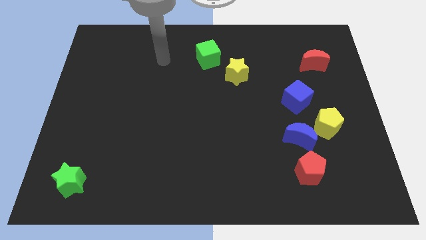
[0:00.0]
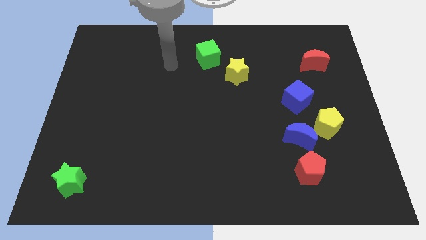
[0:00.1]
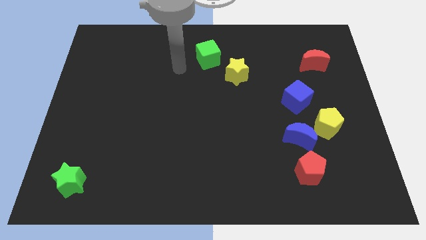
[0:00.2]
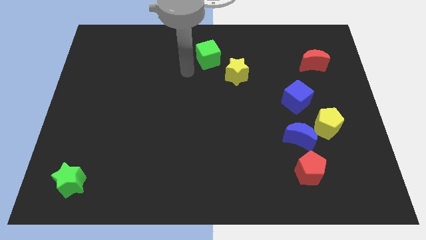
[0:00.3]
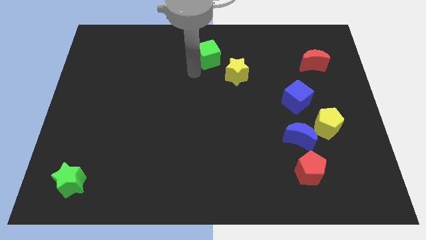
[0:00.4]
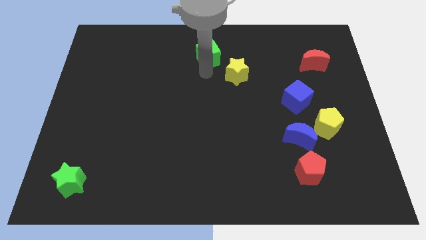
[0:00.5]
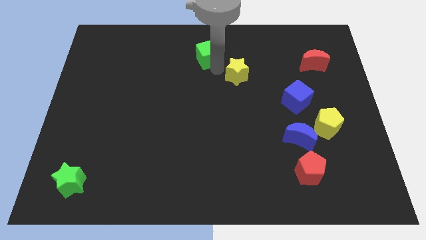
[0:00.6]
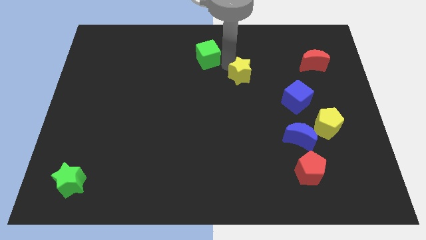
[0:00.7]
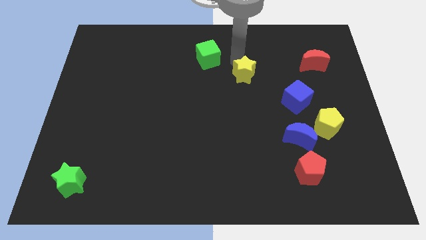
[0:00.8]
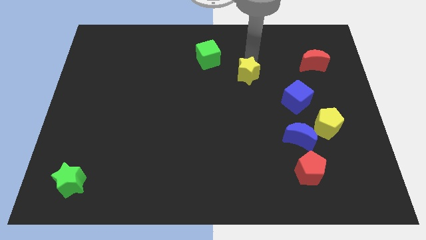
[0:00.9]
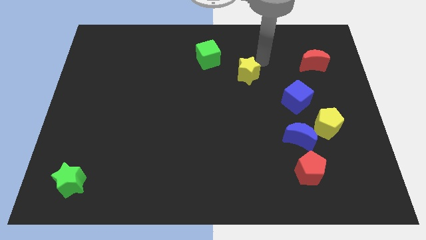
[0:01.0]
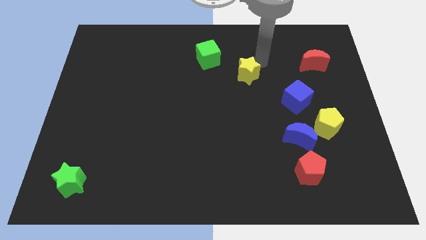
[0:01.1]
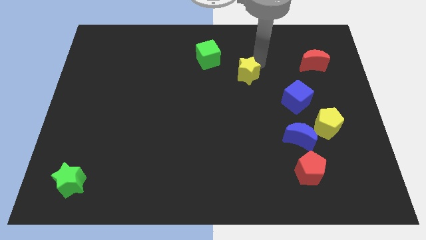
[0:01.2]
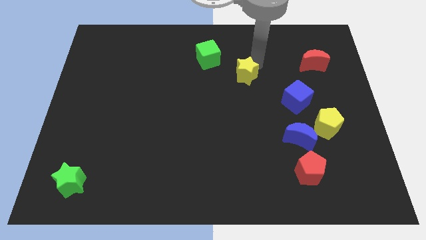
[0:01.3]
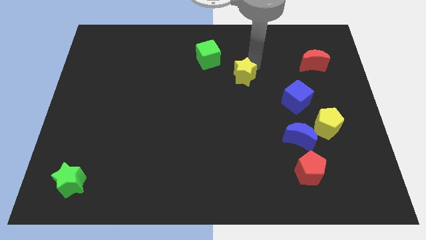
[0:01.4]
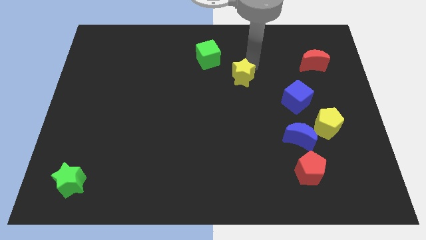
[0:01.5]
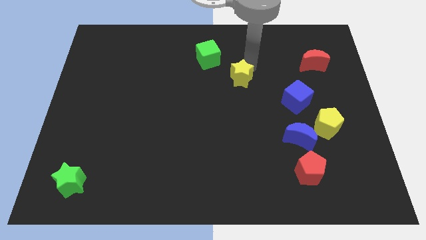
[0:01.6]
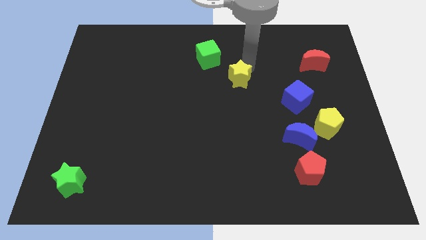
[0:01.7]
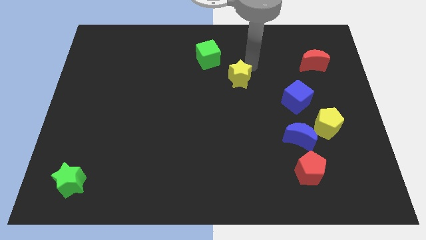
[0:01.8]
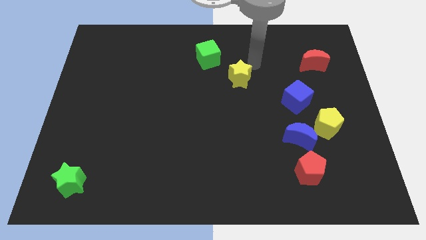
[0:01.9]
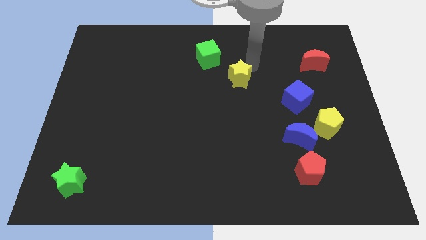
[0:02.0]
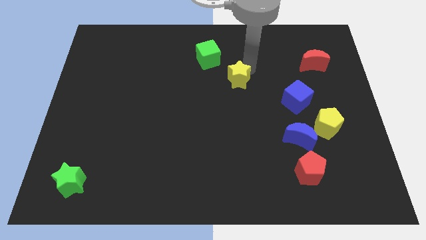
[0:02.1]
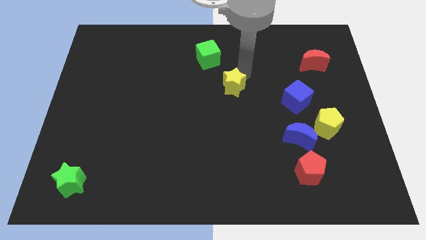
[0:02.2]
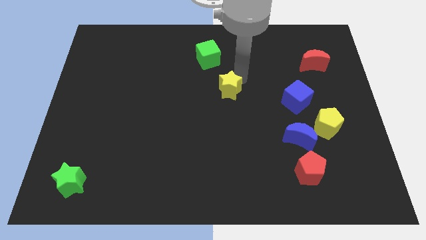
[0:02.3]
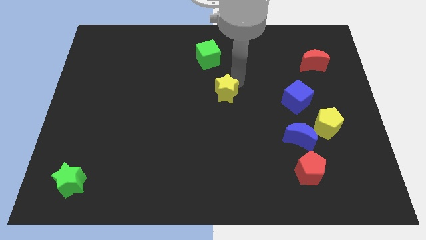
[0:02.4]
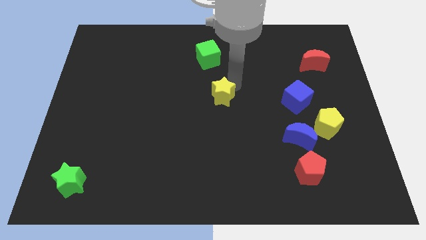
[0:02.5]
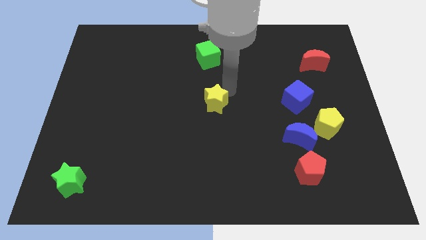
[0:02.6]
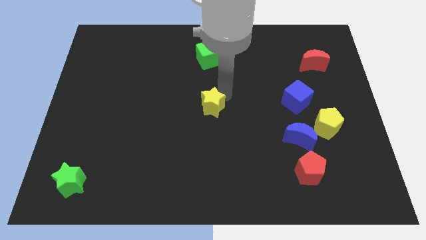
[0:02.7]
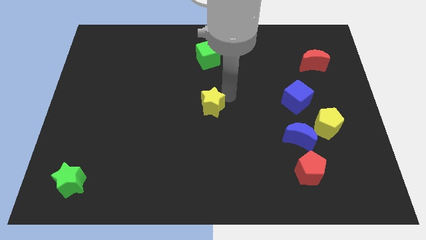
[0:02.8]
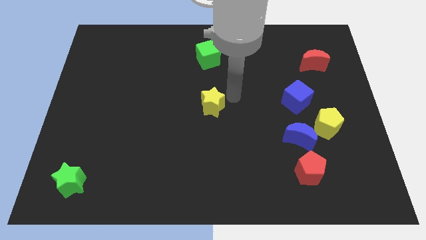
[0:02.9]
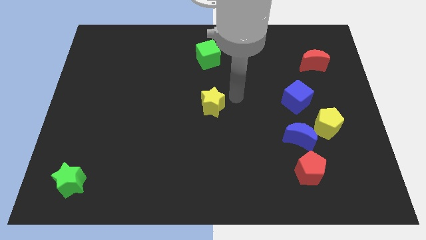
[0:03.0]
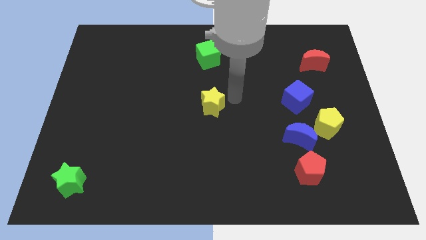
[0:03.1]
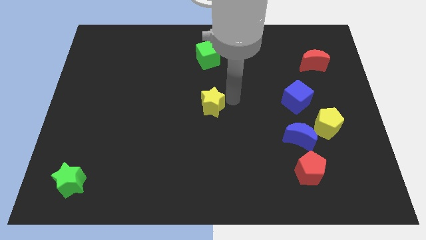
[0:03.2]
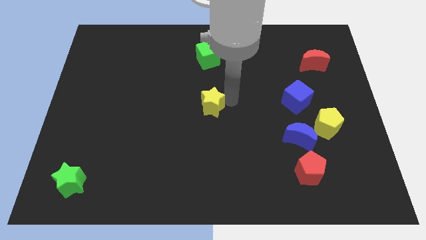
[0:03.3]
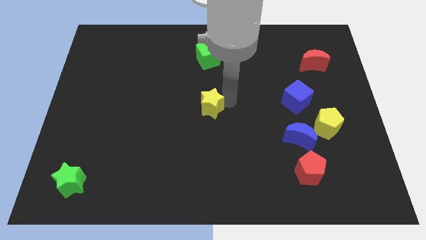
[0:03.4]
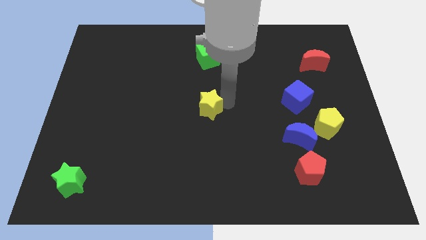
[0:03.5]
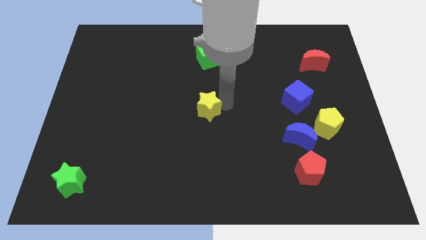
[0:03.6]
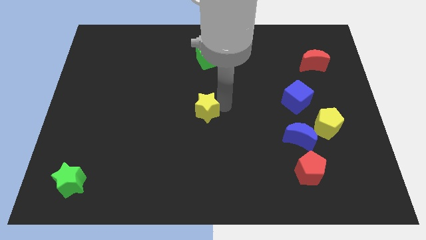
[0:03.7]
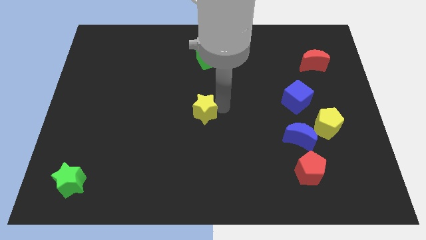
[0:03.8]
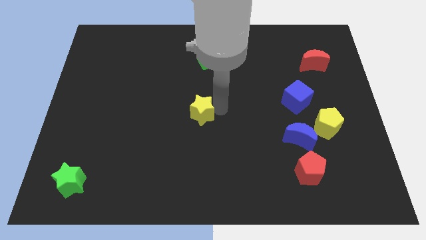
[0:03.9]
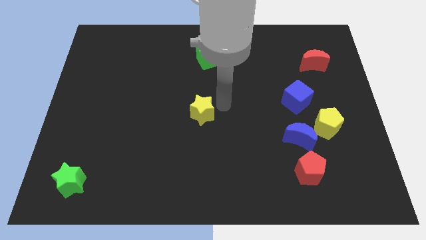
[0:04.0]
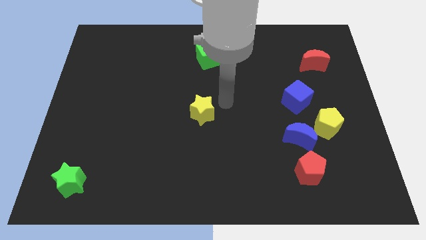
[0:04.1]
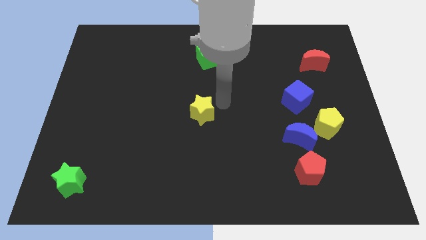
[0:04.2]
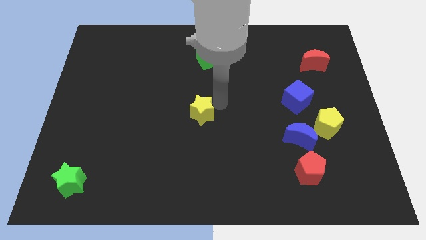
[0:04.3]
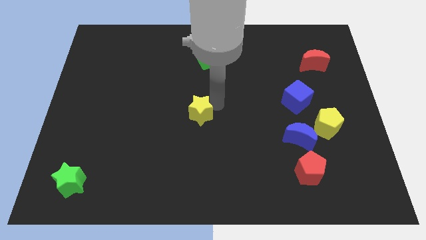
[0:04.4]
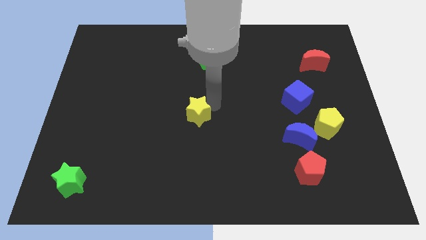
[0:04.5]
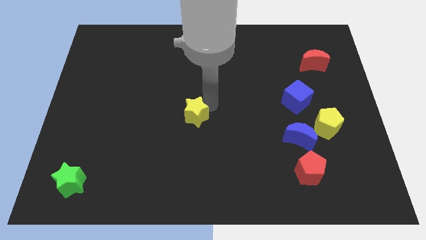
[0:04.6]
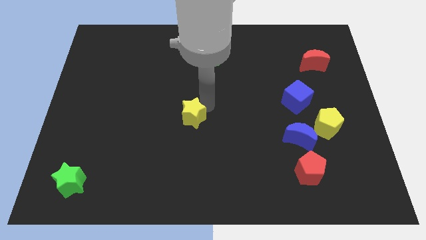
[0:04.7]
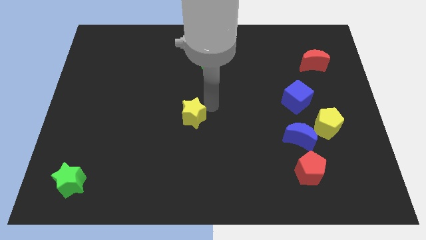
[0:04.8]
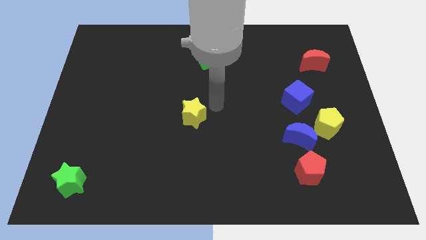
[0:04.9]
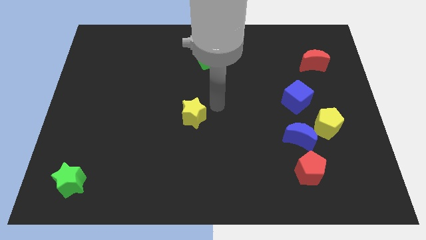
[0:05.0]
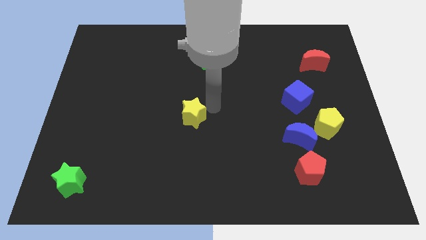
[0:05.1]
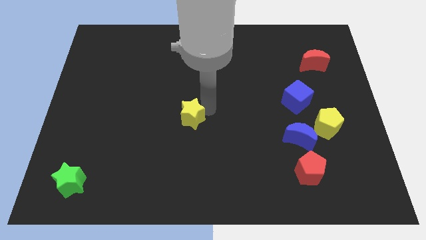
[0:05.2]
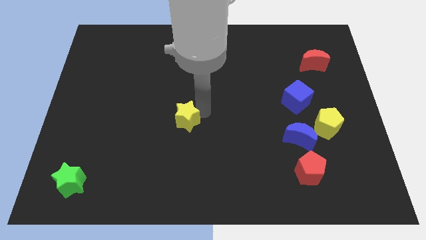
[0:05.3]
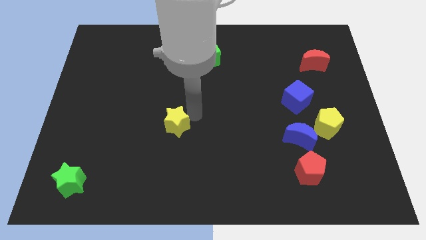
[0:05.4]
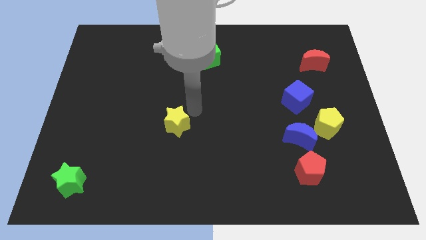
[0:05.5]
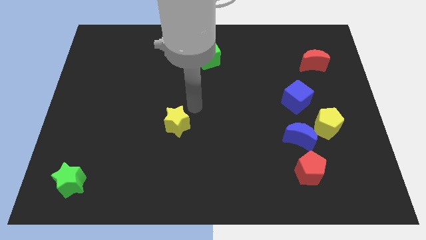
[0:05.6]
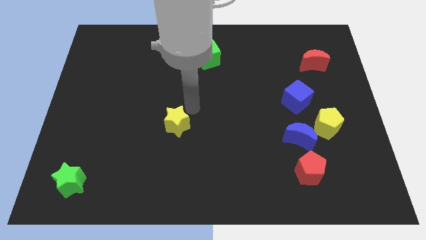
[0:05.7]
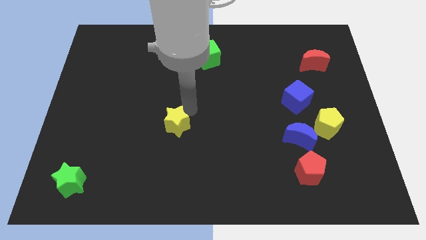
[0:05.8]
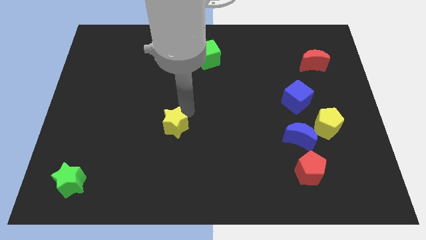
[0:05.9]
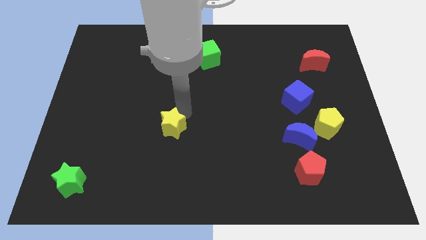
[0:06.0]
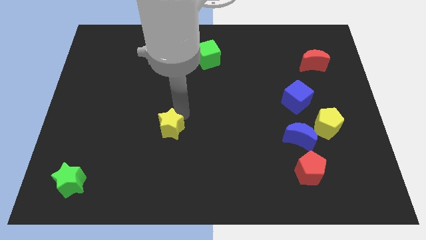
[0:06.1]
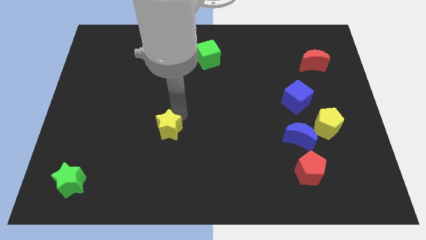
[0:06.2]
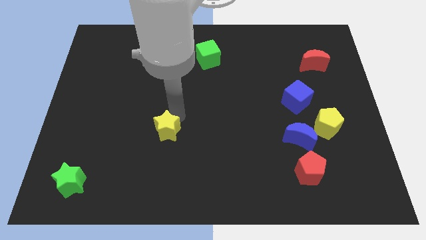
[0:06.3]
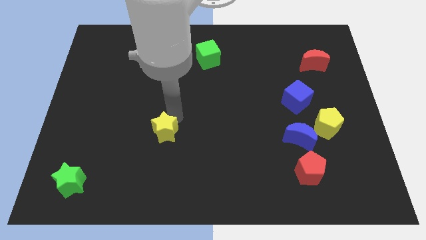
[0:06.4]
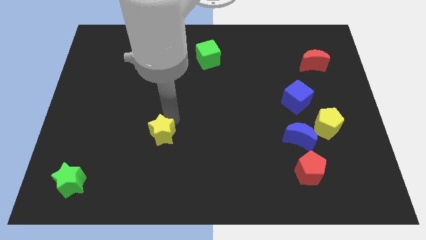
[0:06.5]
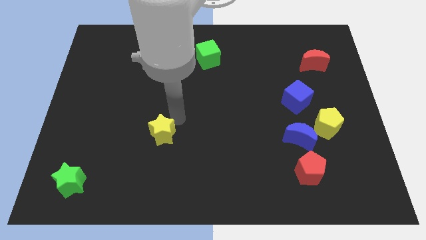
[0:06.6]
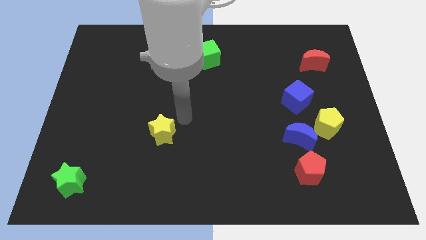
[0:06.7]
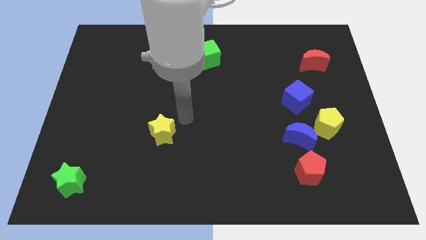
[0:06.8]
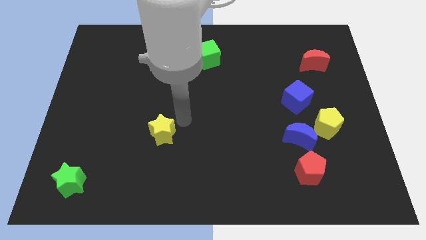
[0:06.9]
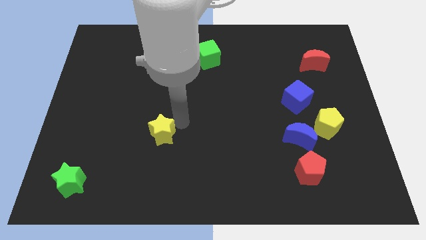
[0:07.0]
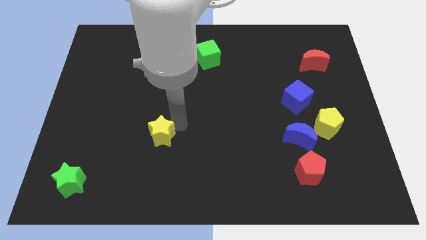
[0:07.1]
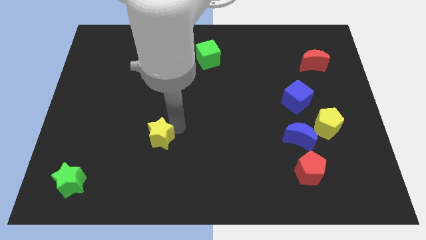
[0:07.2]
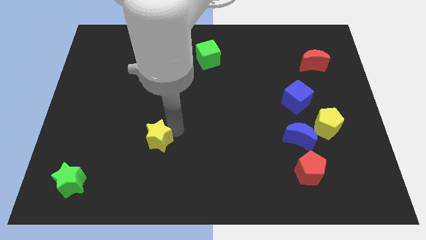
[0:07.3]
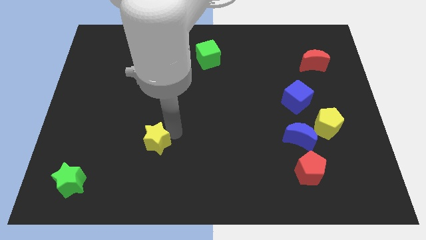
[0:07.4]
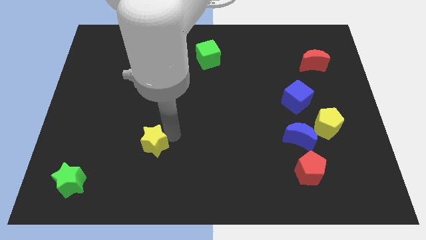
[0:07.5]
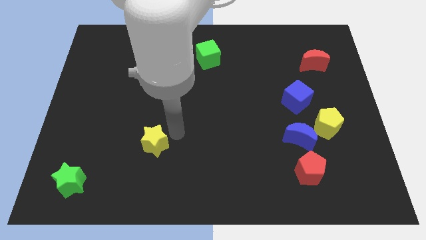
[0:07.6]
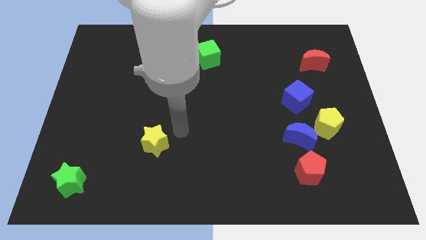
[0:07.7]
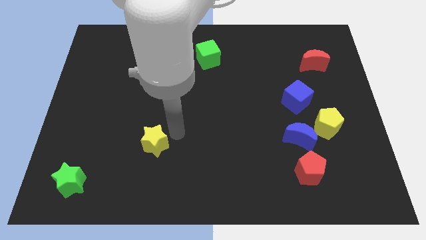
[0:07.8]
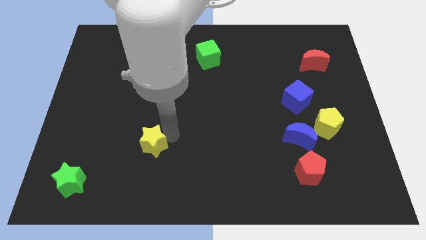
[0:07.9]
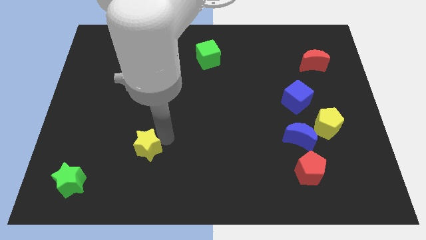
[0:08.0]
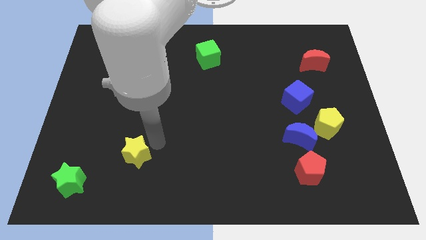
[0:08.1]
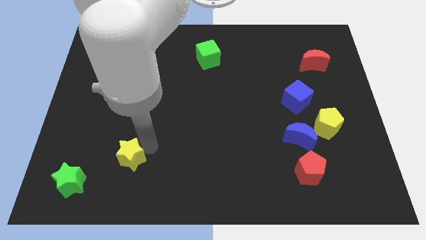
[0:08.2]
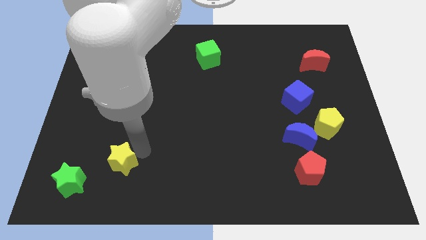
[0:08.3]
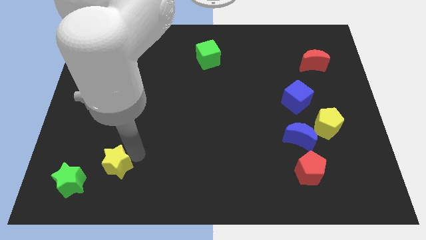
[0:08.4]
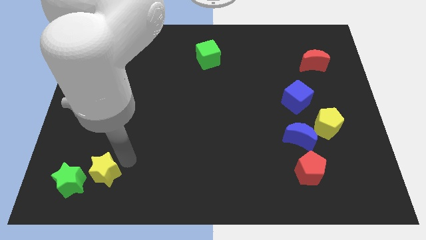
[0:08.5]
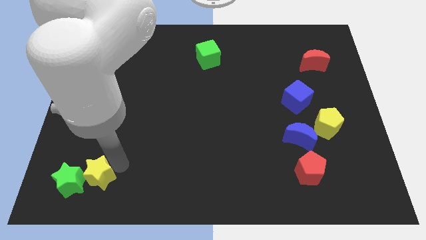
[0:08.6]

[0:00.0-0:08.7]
put the yellow star next to the green star
